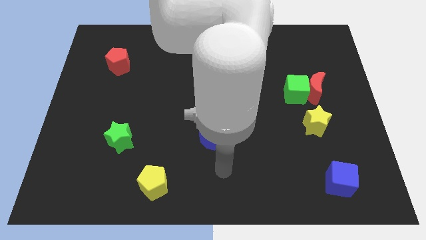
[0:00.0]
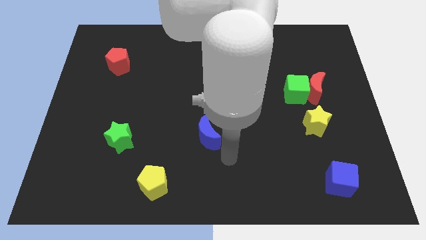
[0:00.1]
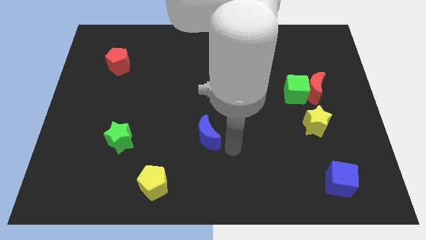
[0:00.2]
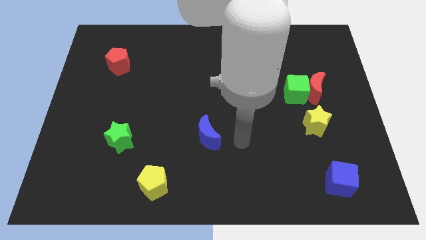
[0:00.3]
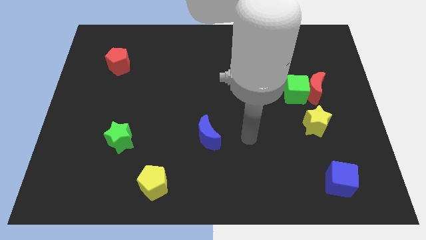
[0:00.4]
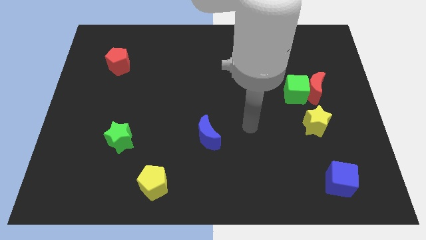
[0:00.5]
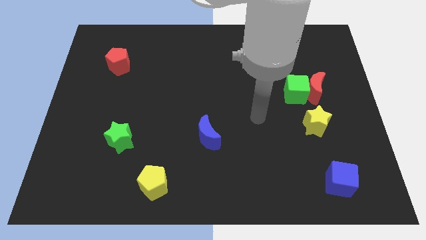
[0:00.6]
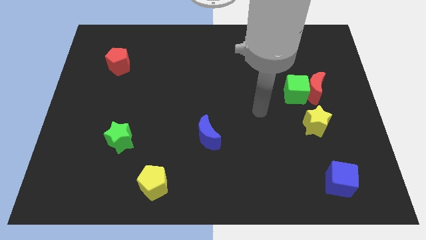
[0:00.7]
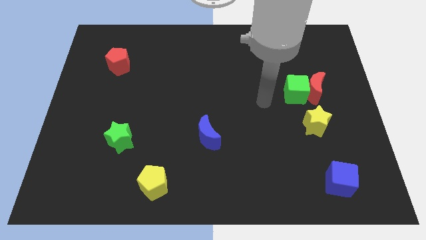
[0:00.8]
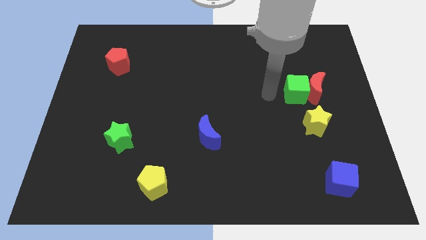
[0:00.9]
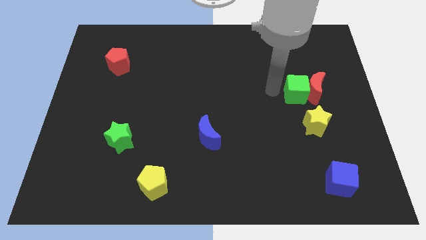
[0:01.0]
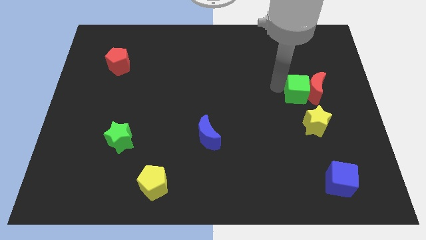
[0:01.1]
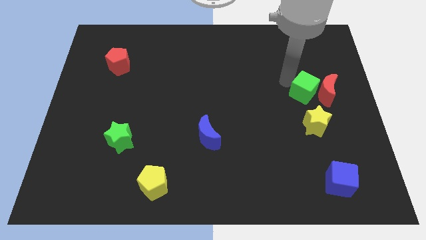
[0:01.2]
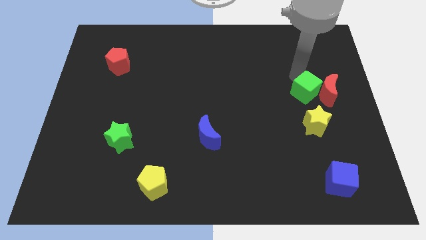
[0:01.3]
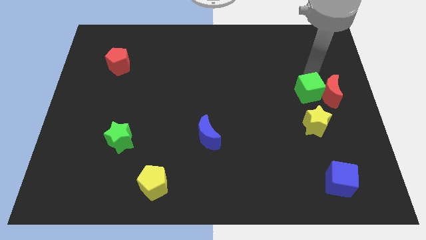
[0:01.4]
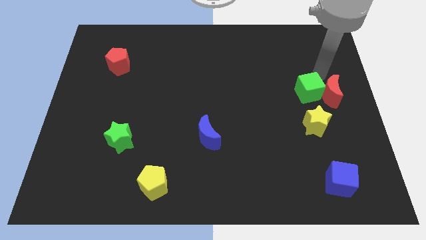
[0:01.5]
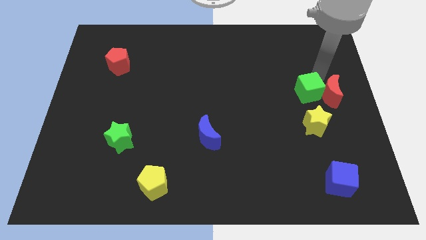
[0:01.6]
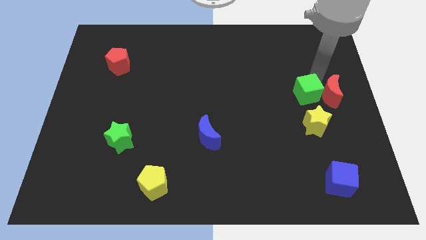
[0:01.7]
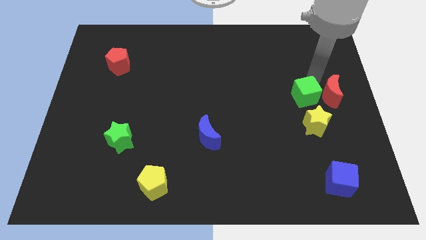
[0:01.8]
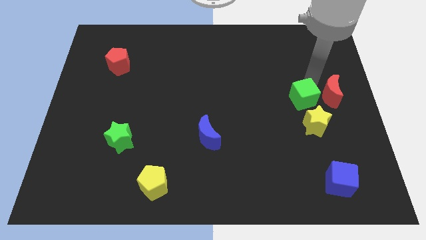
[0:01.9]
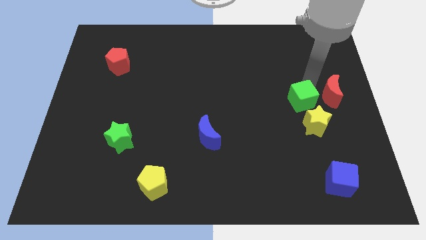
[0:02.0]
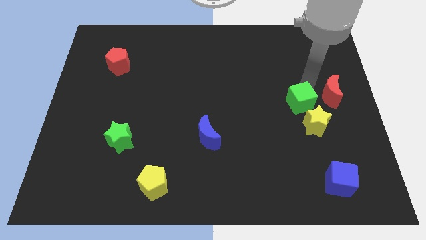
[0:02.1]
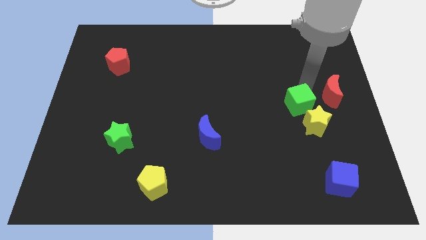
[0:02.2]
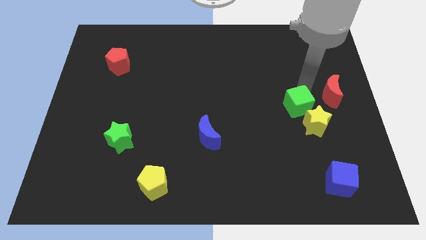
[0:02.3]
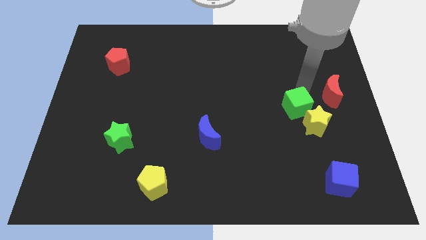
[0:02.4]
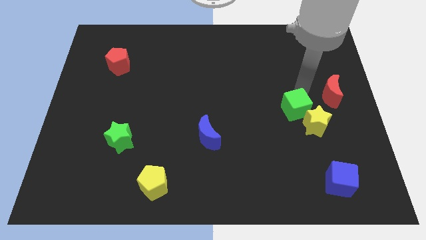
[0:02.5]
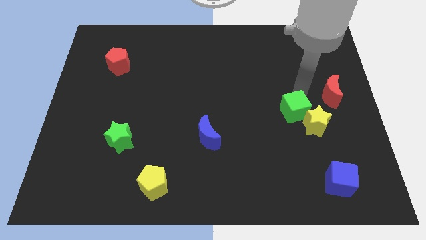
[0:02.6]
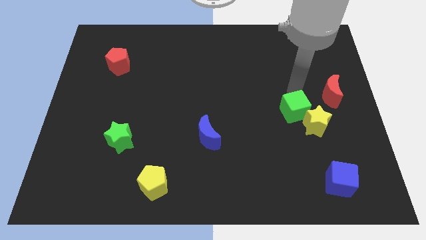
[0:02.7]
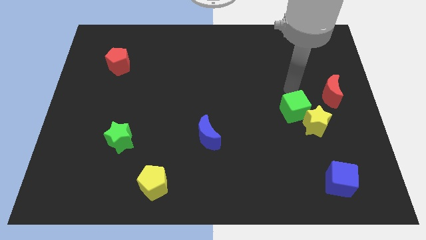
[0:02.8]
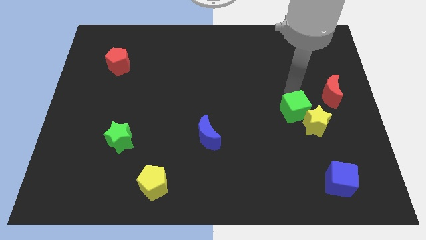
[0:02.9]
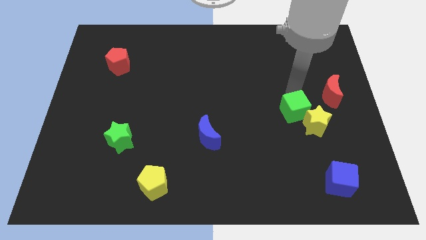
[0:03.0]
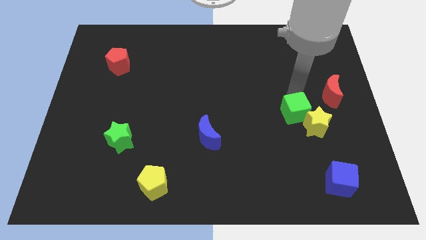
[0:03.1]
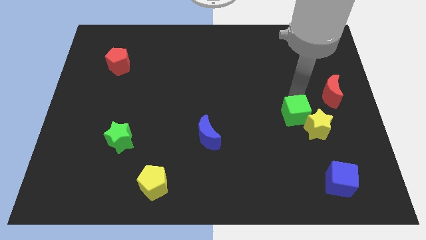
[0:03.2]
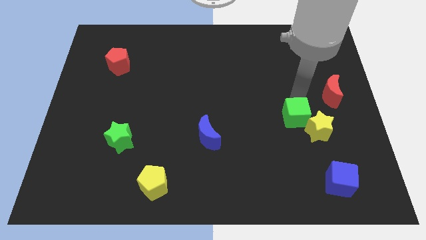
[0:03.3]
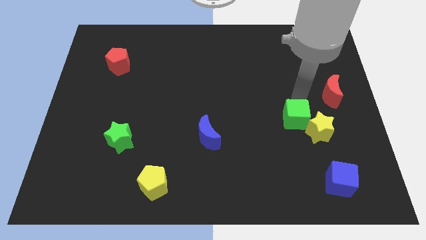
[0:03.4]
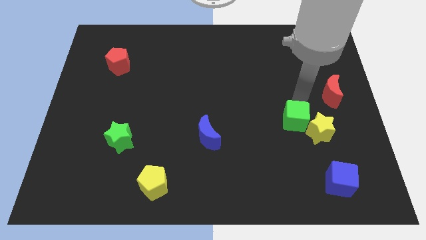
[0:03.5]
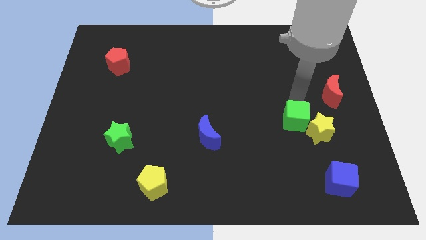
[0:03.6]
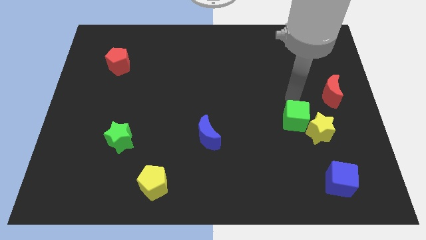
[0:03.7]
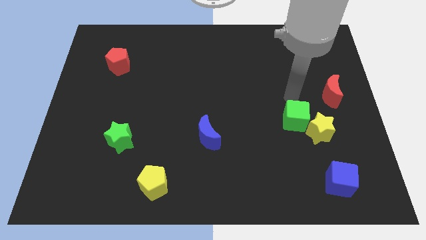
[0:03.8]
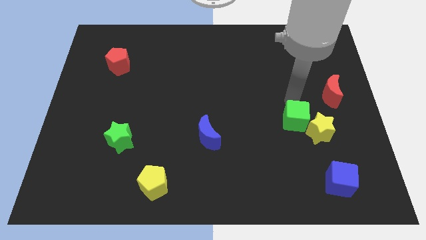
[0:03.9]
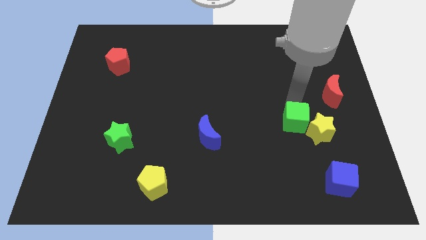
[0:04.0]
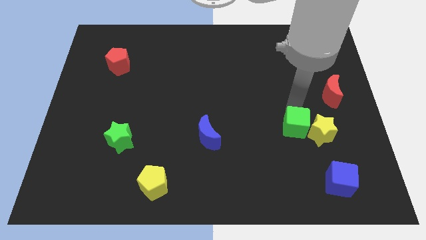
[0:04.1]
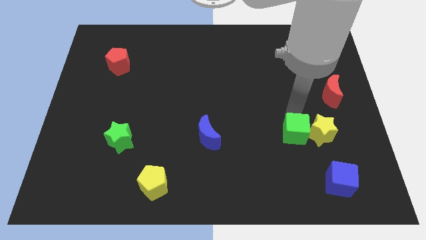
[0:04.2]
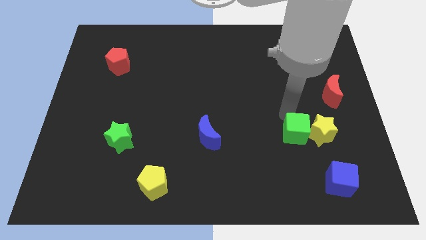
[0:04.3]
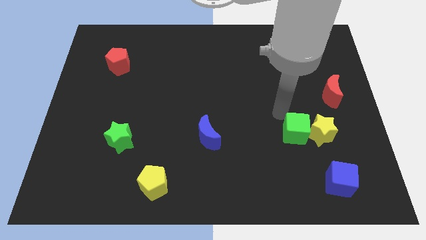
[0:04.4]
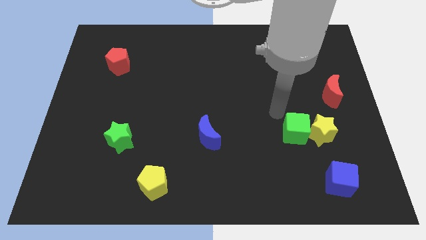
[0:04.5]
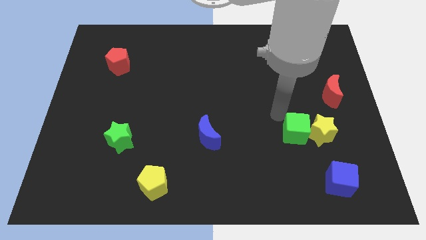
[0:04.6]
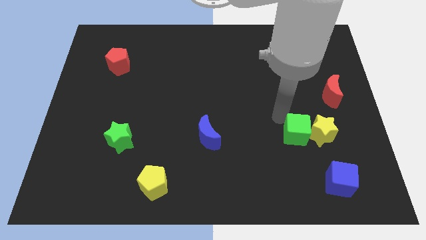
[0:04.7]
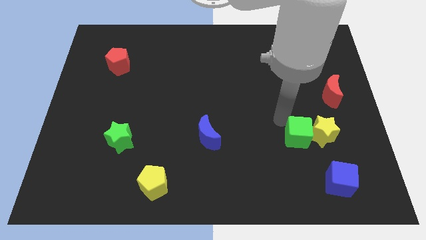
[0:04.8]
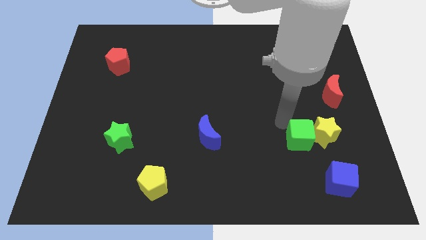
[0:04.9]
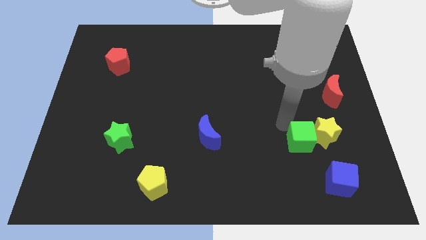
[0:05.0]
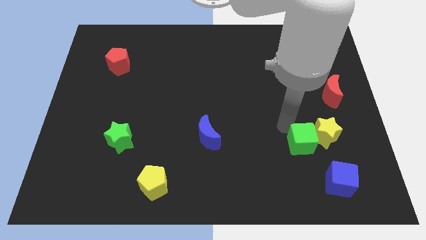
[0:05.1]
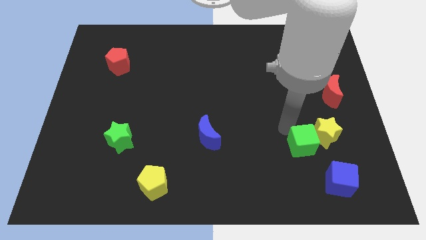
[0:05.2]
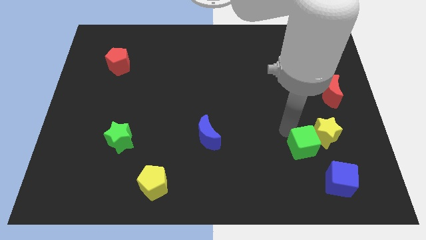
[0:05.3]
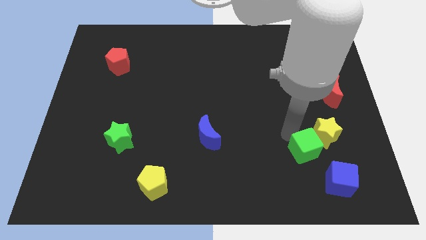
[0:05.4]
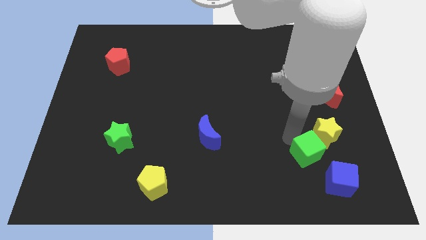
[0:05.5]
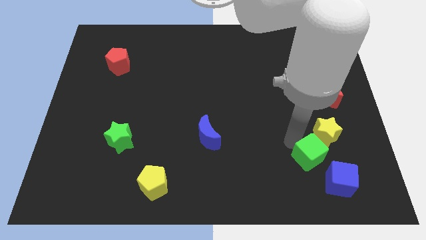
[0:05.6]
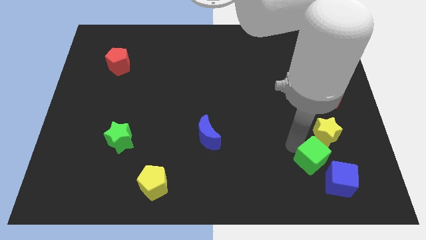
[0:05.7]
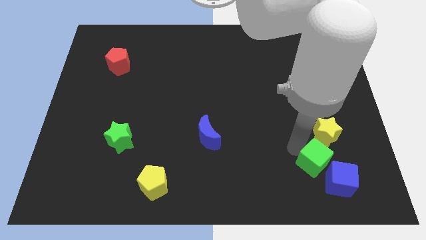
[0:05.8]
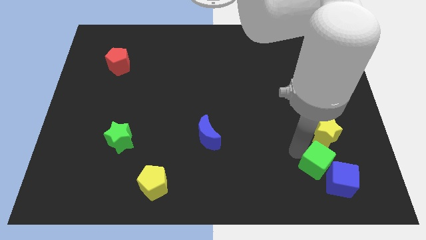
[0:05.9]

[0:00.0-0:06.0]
move the green cube towards the blue cube

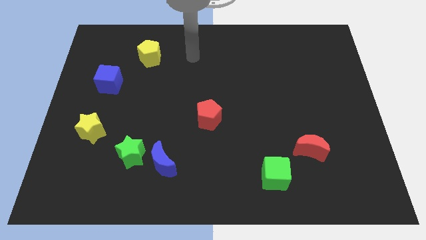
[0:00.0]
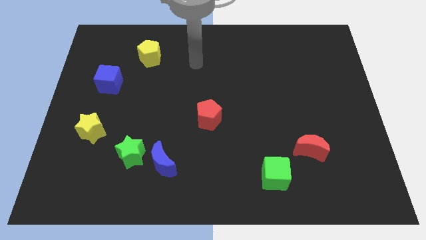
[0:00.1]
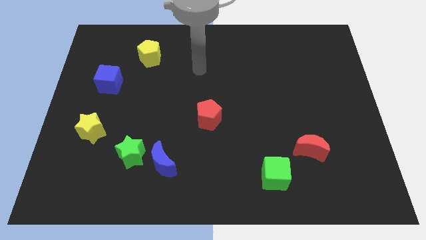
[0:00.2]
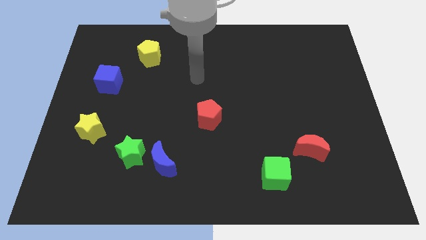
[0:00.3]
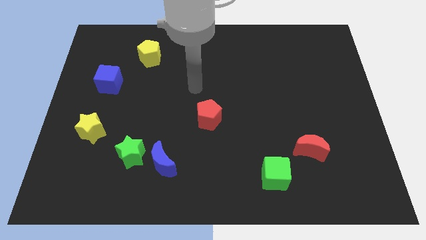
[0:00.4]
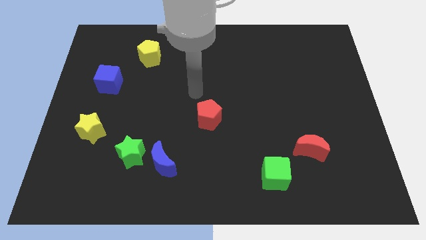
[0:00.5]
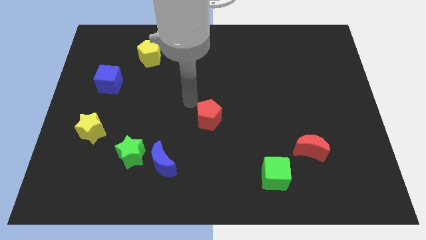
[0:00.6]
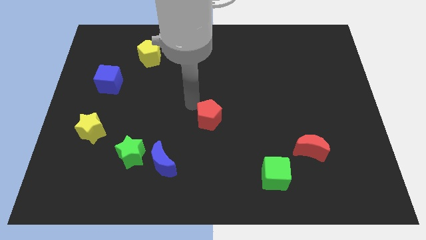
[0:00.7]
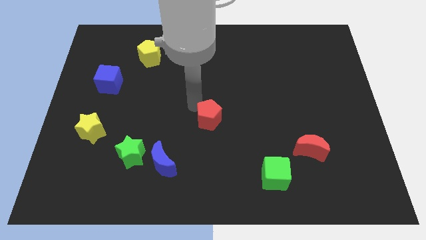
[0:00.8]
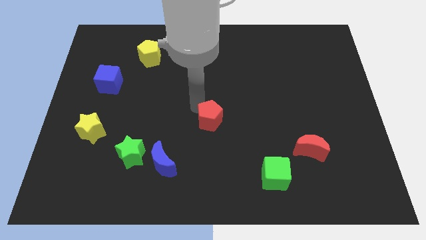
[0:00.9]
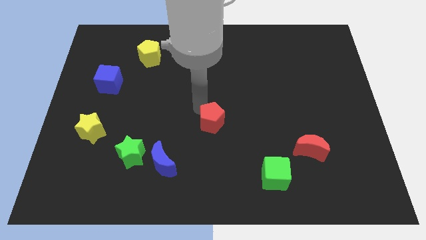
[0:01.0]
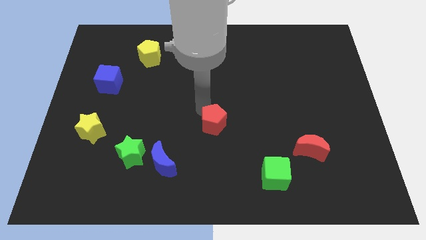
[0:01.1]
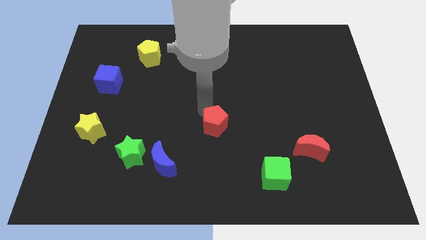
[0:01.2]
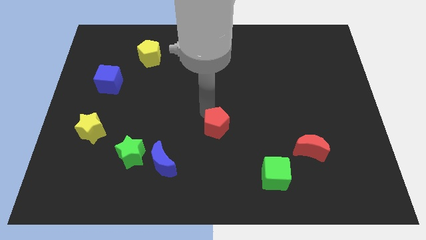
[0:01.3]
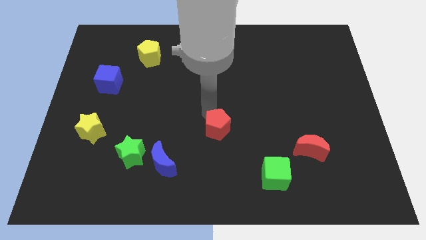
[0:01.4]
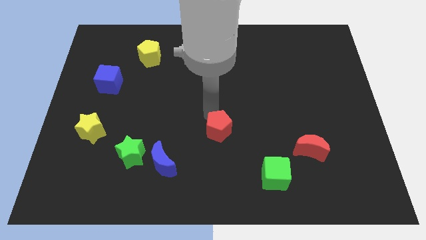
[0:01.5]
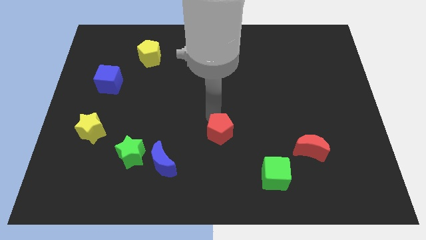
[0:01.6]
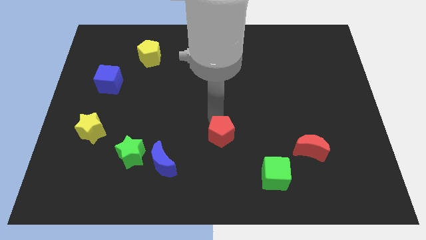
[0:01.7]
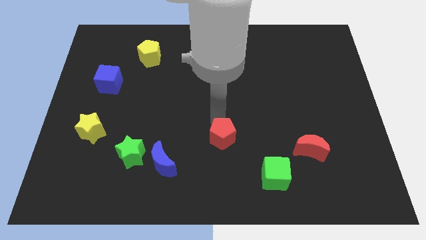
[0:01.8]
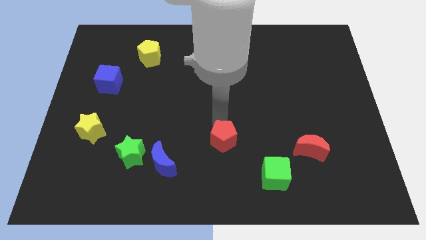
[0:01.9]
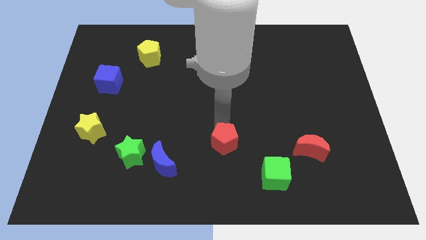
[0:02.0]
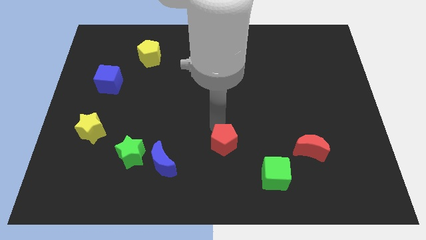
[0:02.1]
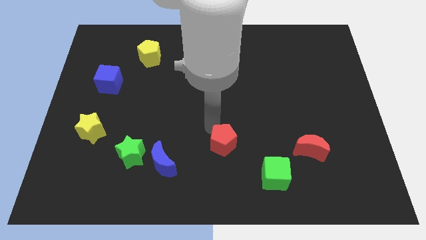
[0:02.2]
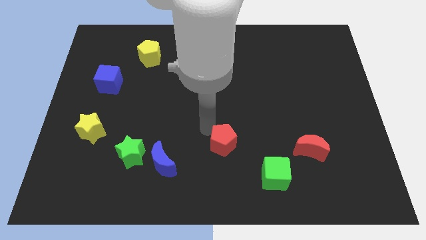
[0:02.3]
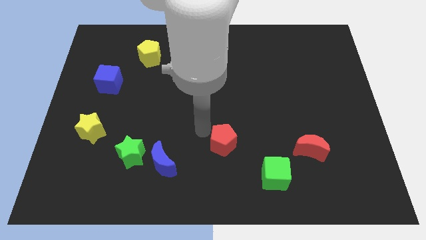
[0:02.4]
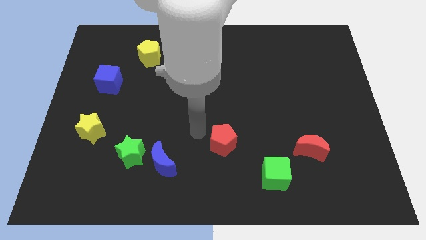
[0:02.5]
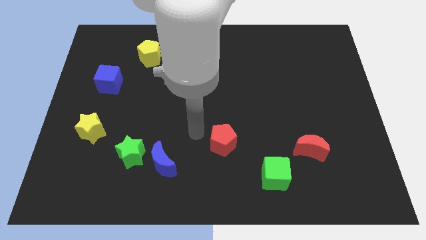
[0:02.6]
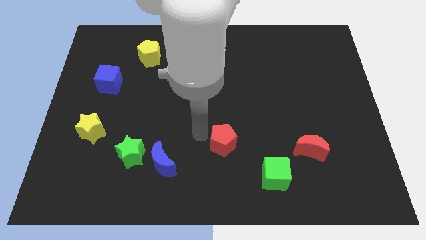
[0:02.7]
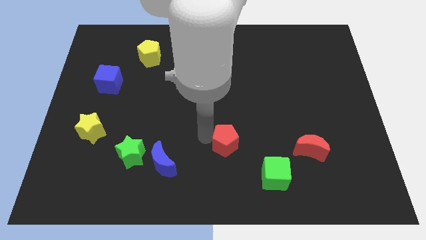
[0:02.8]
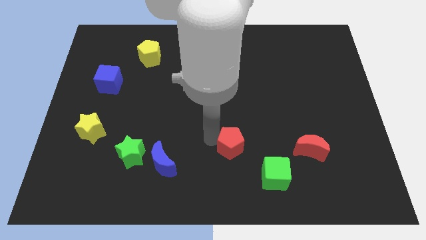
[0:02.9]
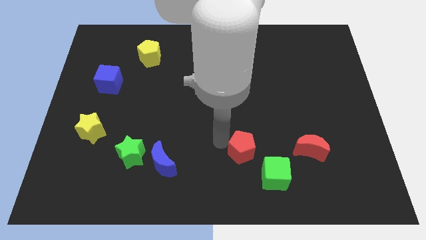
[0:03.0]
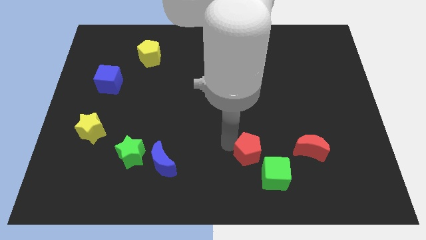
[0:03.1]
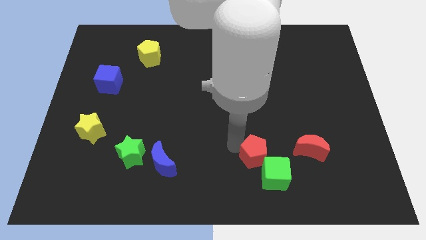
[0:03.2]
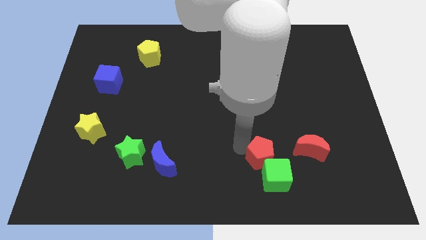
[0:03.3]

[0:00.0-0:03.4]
slide the red pentagon to the green cube
